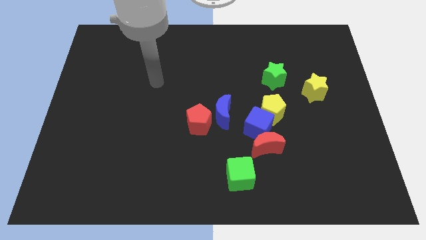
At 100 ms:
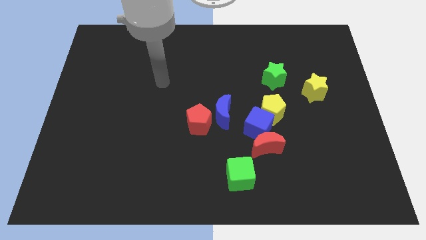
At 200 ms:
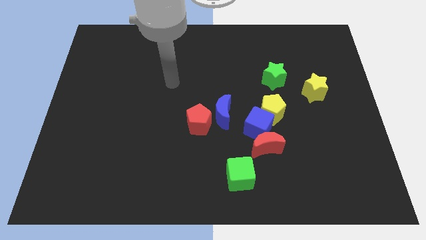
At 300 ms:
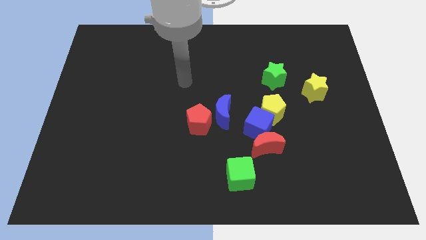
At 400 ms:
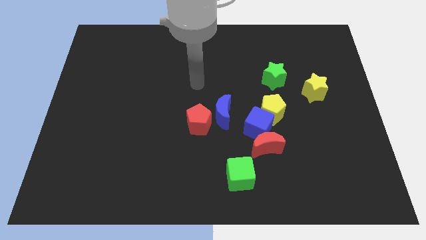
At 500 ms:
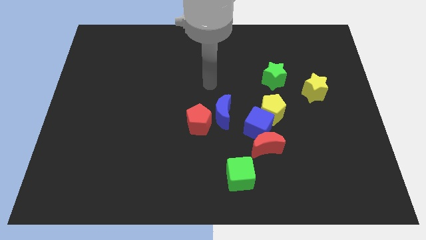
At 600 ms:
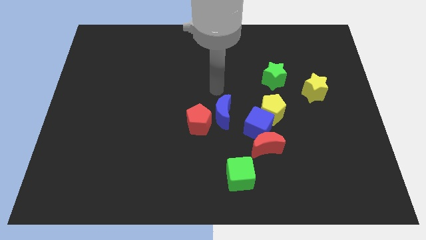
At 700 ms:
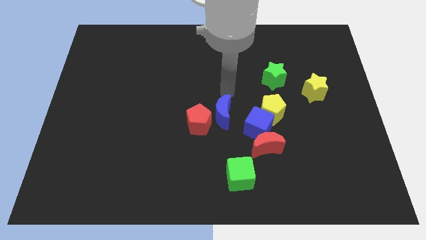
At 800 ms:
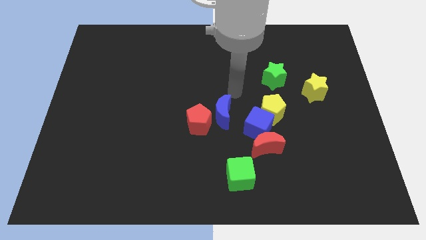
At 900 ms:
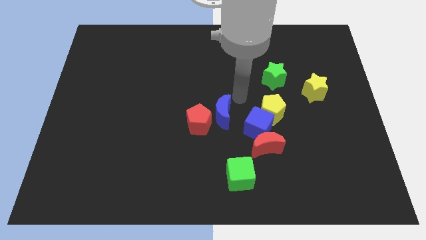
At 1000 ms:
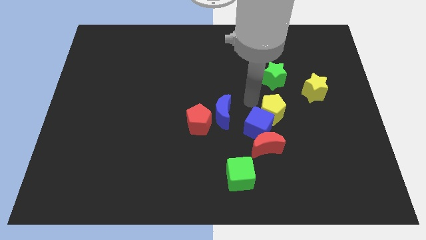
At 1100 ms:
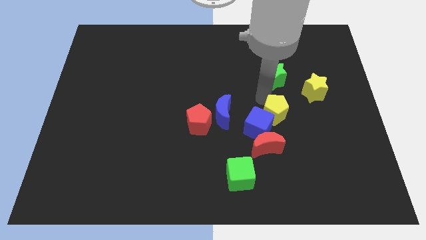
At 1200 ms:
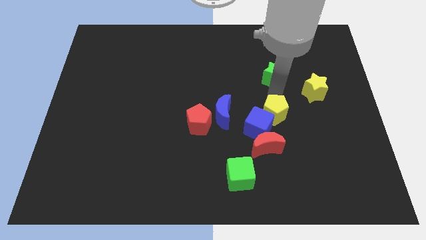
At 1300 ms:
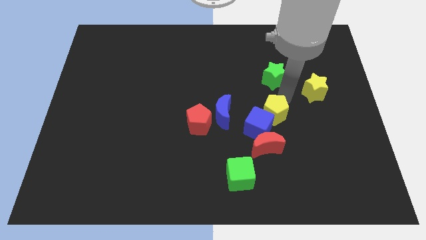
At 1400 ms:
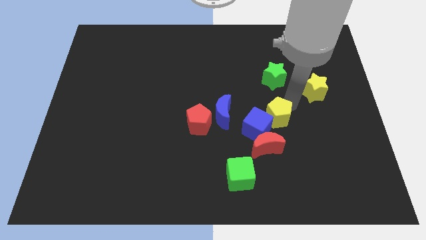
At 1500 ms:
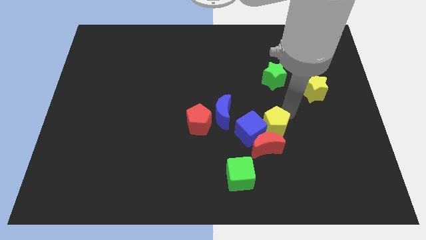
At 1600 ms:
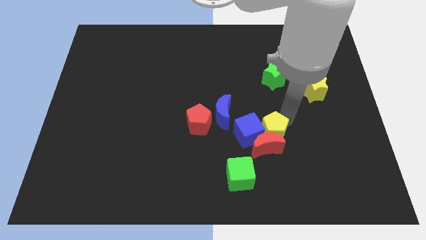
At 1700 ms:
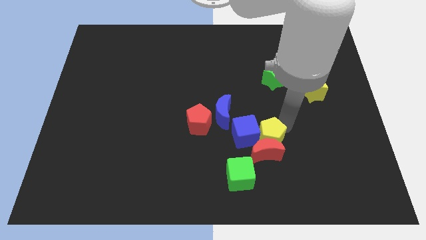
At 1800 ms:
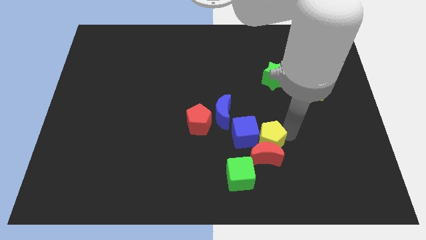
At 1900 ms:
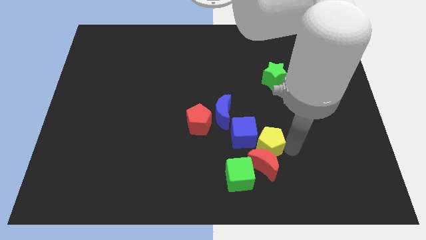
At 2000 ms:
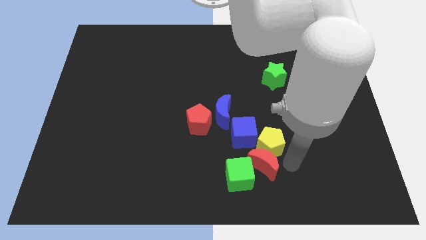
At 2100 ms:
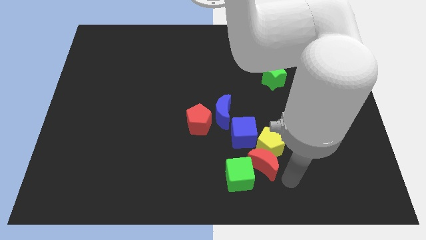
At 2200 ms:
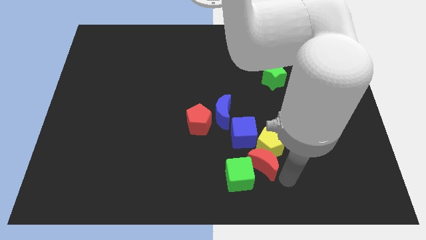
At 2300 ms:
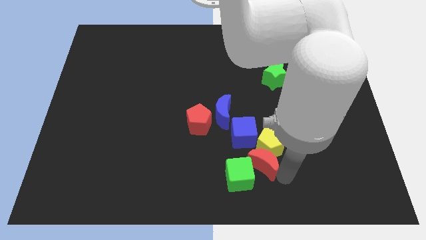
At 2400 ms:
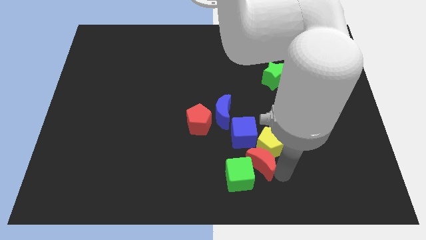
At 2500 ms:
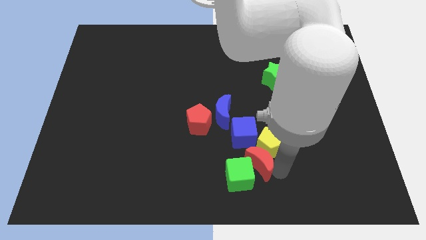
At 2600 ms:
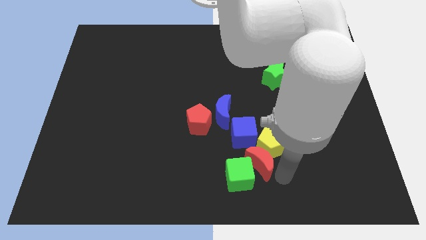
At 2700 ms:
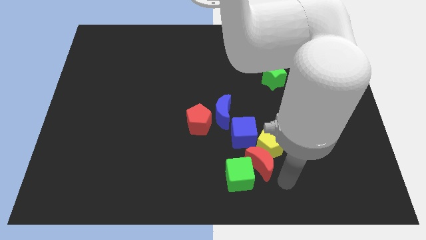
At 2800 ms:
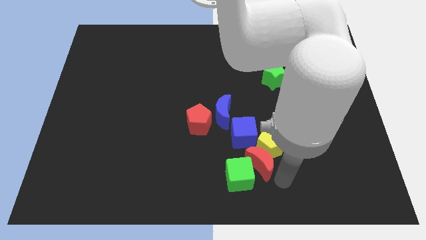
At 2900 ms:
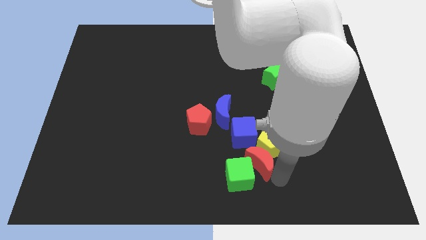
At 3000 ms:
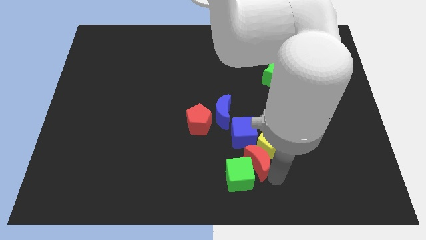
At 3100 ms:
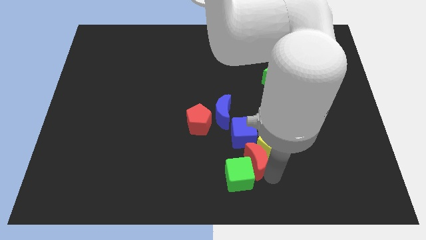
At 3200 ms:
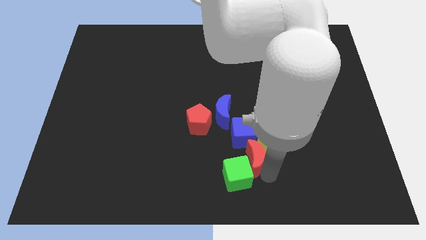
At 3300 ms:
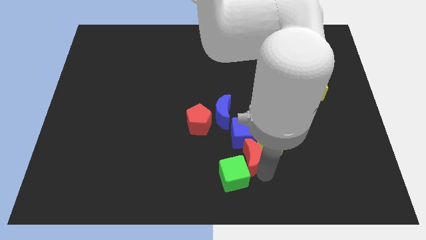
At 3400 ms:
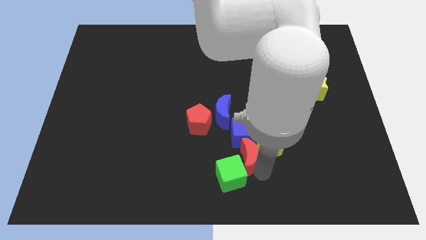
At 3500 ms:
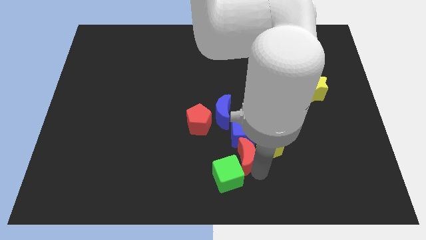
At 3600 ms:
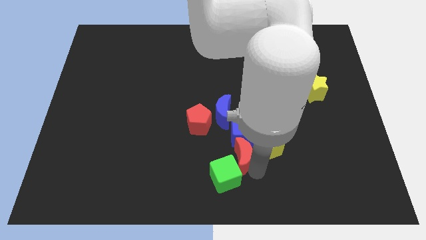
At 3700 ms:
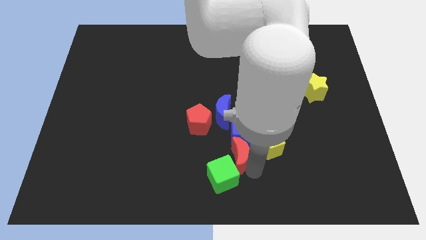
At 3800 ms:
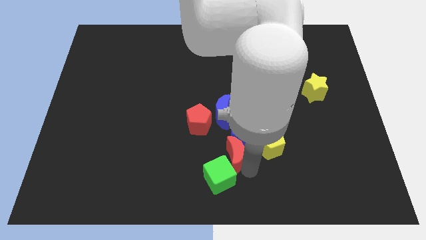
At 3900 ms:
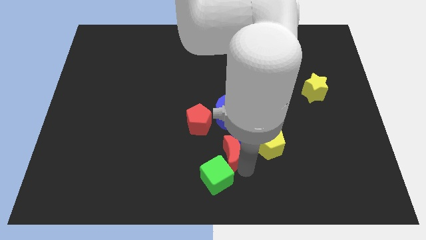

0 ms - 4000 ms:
move the red moon somewhat left

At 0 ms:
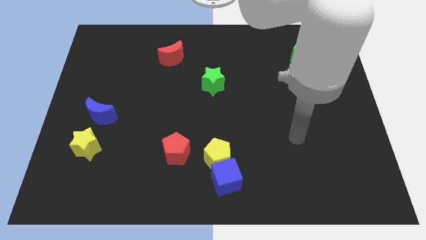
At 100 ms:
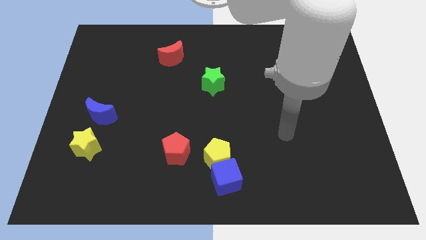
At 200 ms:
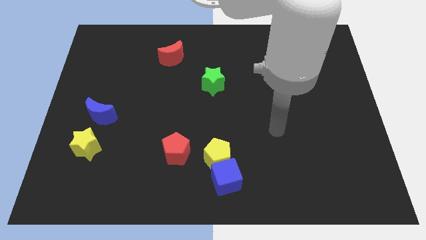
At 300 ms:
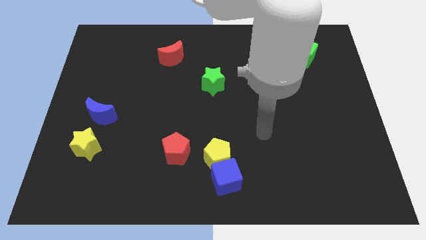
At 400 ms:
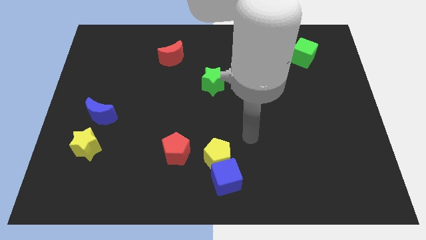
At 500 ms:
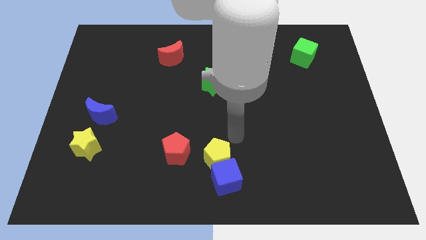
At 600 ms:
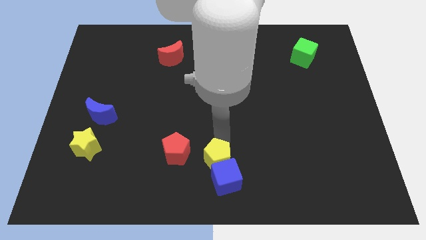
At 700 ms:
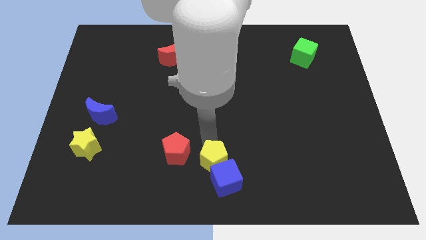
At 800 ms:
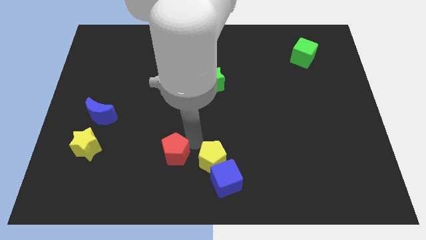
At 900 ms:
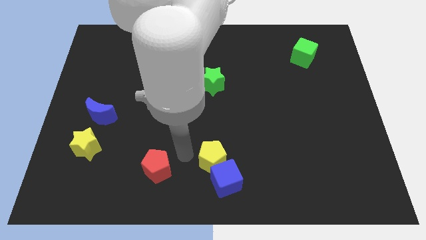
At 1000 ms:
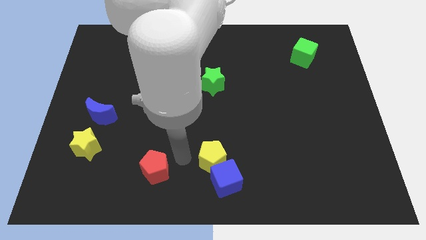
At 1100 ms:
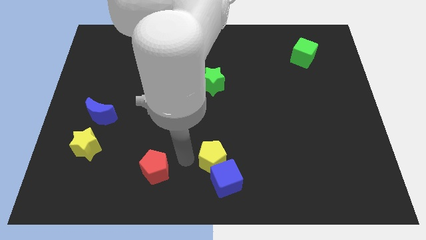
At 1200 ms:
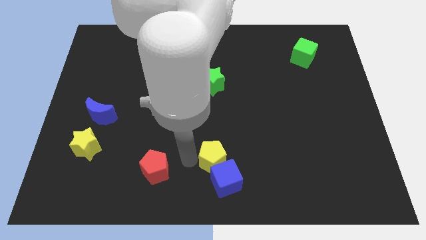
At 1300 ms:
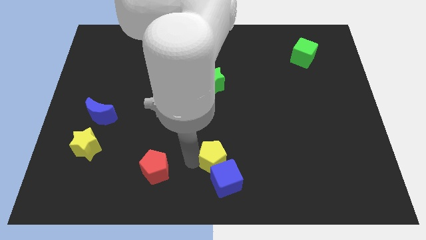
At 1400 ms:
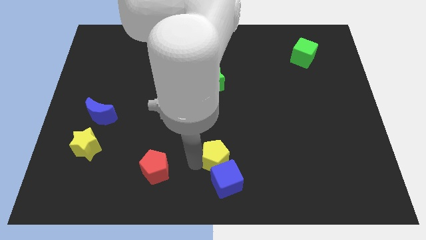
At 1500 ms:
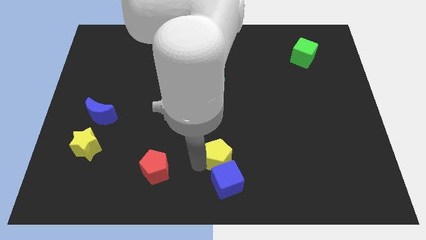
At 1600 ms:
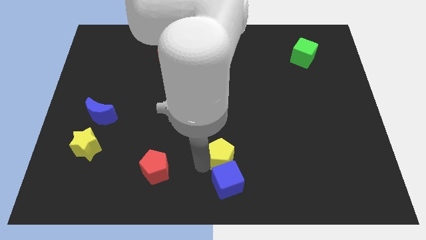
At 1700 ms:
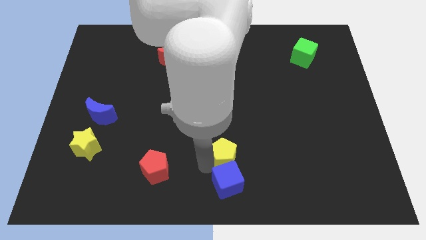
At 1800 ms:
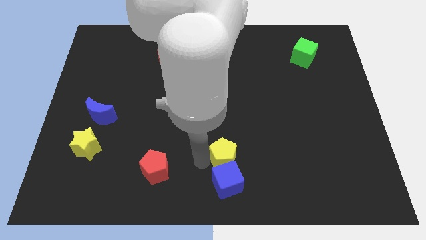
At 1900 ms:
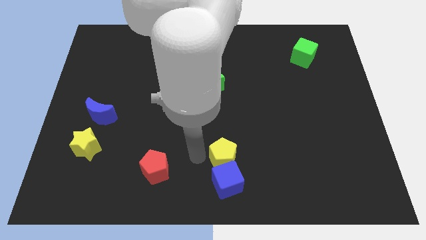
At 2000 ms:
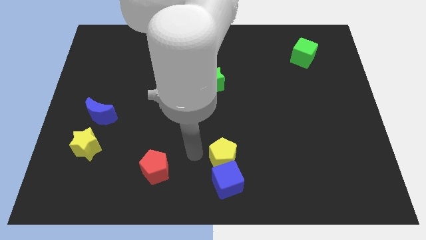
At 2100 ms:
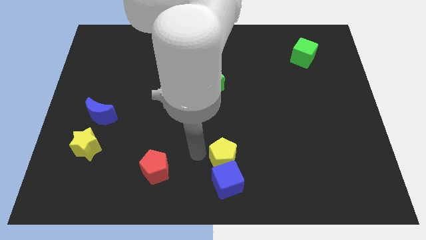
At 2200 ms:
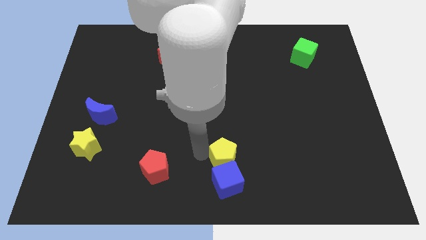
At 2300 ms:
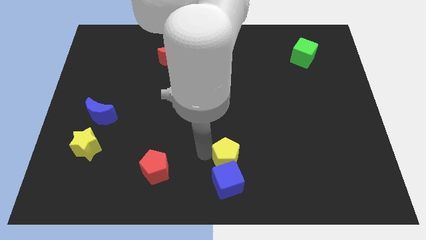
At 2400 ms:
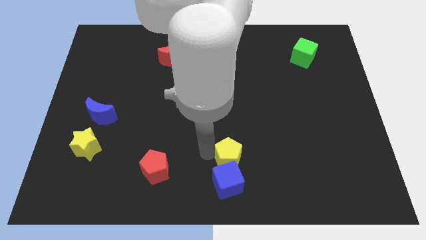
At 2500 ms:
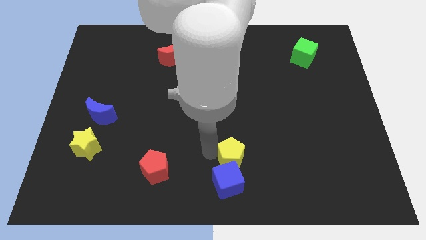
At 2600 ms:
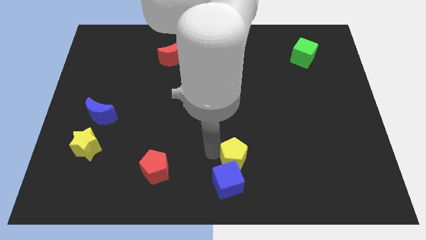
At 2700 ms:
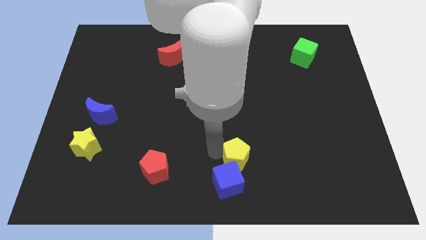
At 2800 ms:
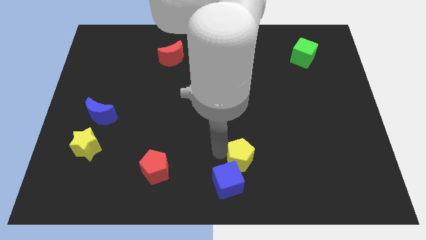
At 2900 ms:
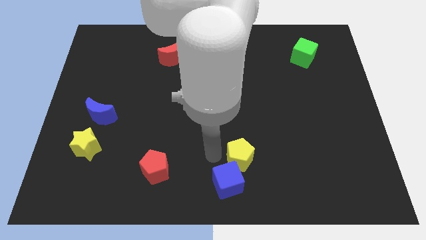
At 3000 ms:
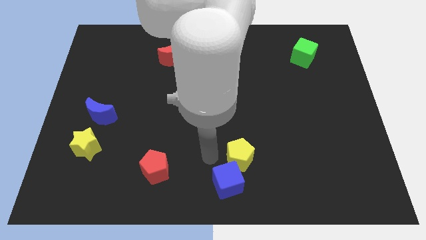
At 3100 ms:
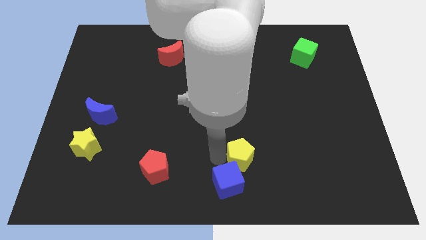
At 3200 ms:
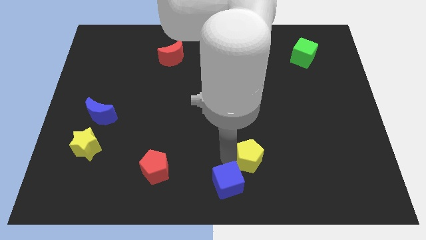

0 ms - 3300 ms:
slightly push the yellow pentagon right

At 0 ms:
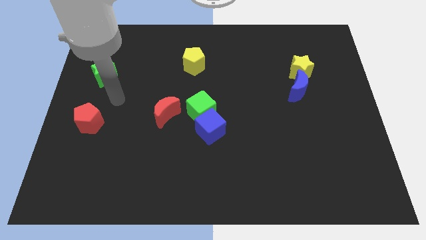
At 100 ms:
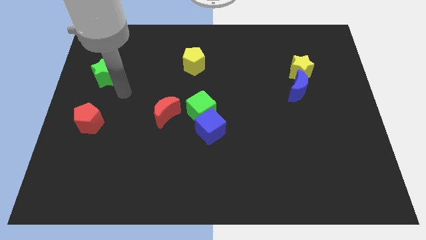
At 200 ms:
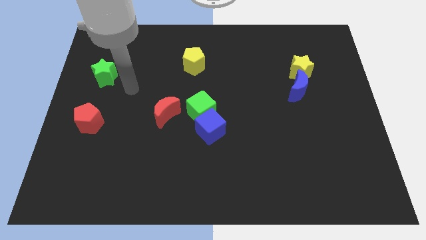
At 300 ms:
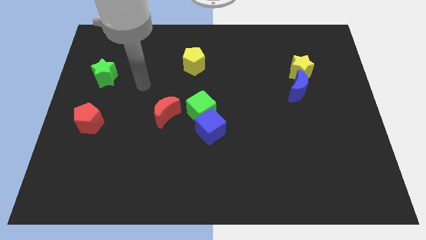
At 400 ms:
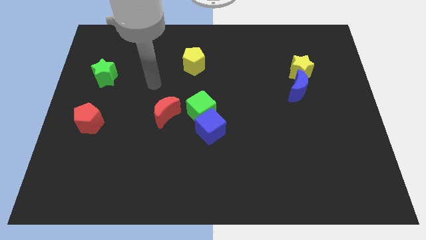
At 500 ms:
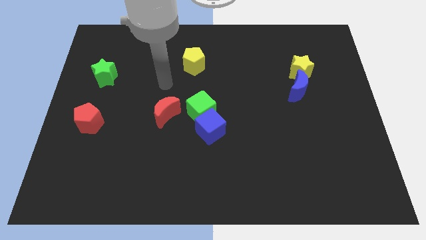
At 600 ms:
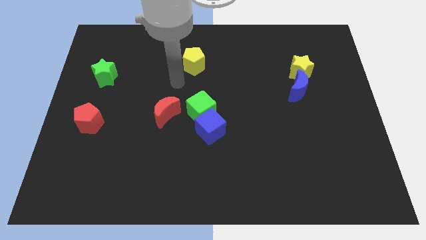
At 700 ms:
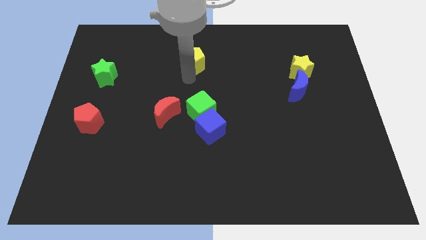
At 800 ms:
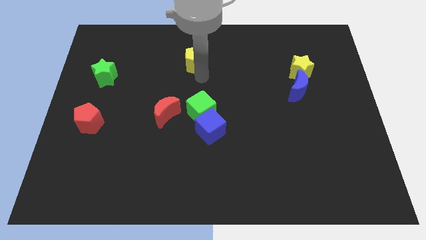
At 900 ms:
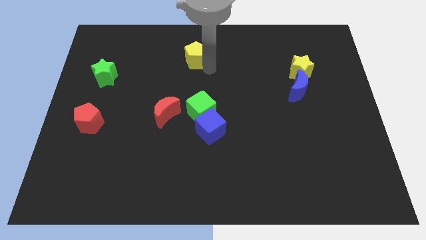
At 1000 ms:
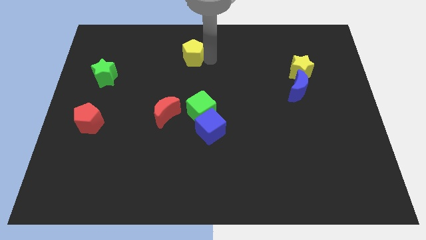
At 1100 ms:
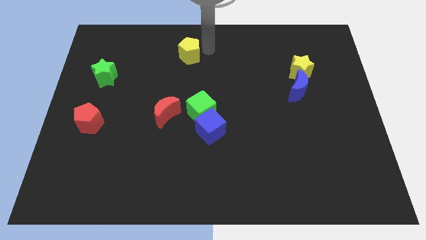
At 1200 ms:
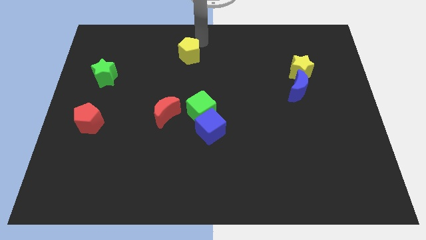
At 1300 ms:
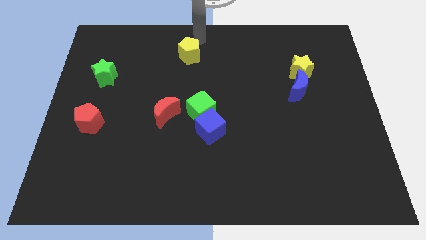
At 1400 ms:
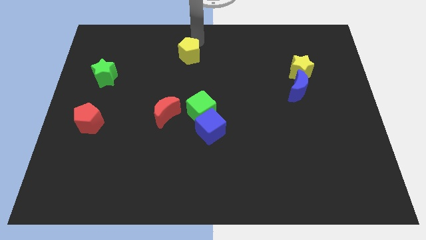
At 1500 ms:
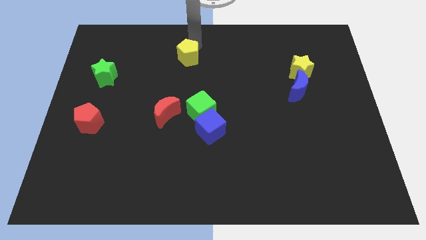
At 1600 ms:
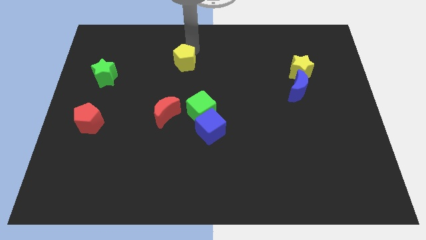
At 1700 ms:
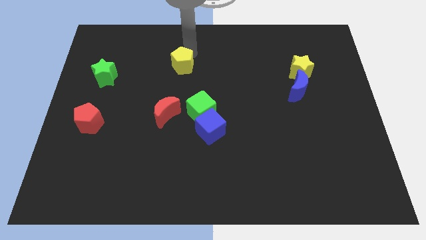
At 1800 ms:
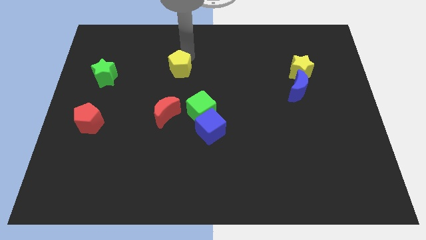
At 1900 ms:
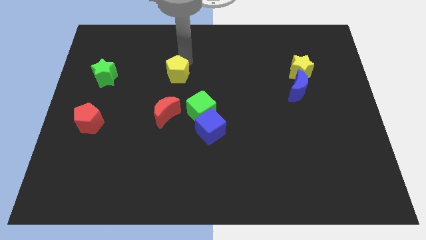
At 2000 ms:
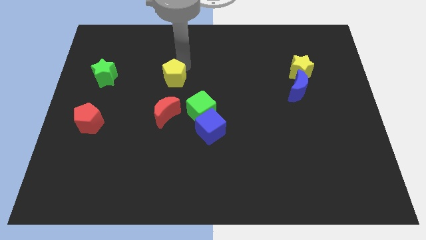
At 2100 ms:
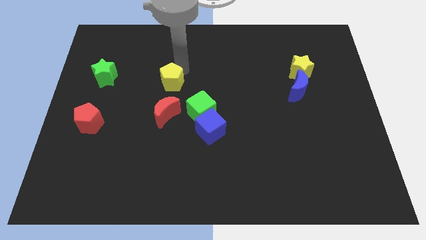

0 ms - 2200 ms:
slightly move the yellow pentagon downwards and then left
